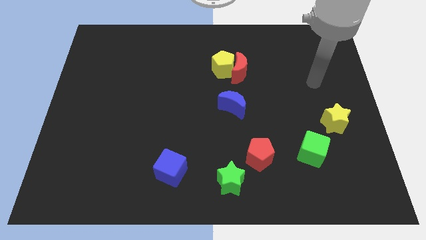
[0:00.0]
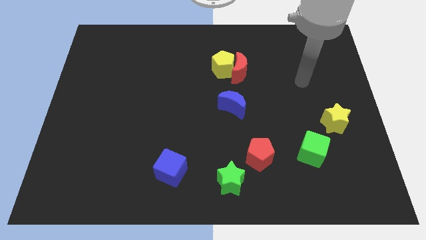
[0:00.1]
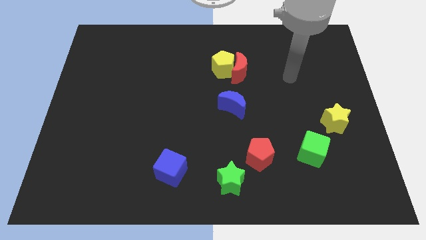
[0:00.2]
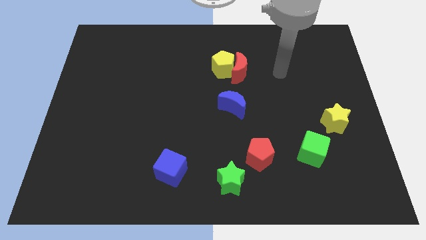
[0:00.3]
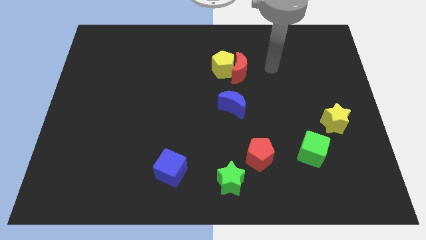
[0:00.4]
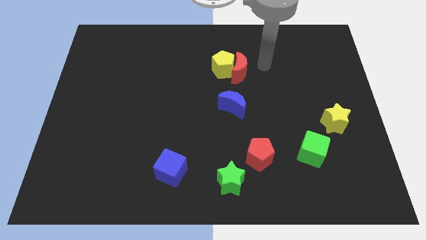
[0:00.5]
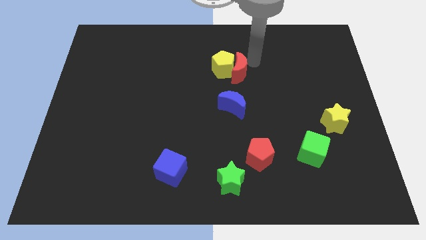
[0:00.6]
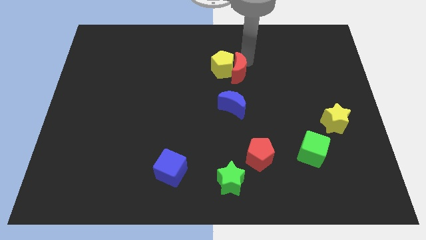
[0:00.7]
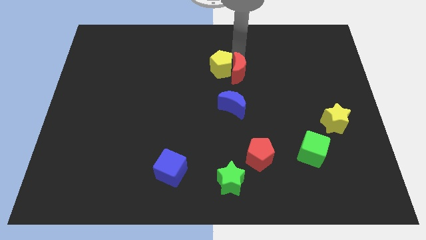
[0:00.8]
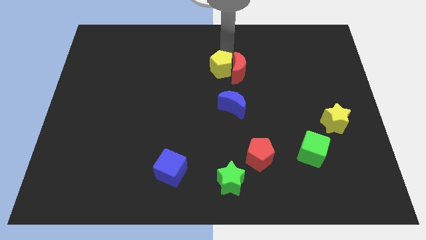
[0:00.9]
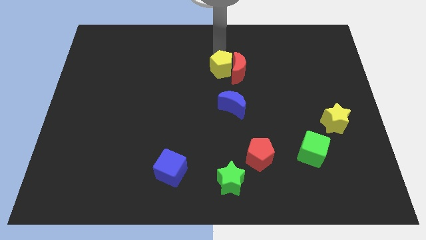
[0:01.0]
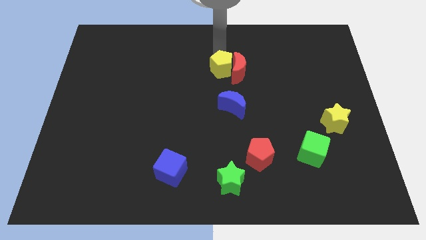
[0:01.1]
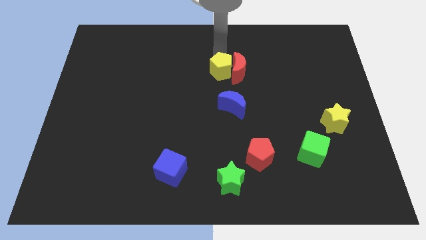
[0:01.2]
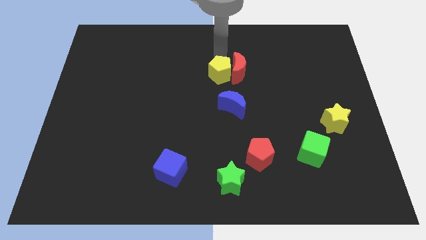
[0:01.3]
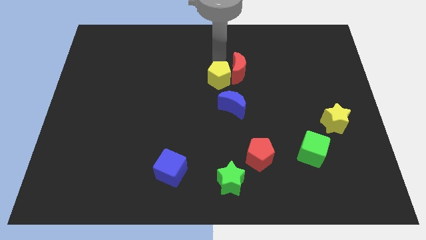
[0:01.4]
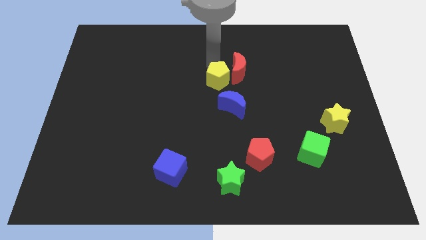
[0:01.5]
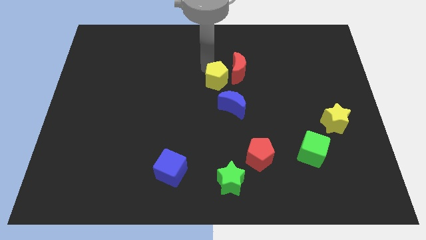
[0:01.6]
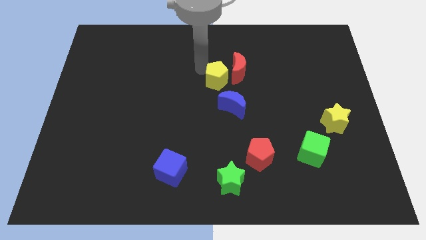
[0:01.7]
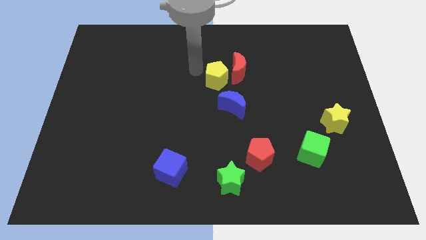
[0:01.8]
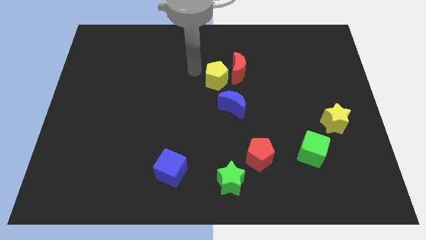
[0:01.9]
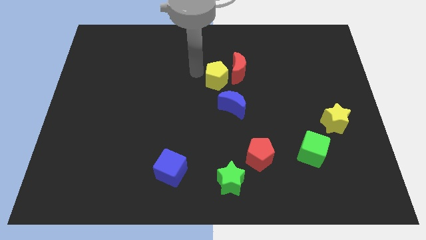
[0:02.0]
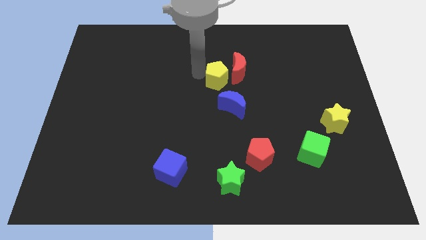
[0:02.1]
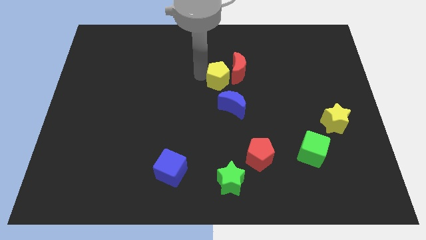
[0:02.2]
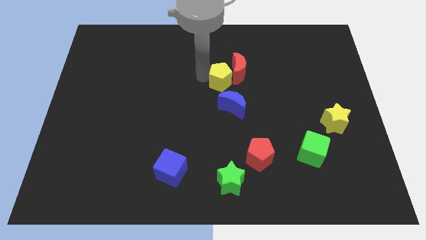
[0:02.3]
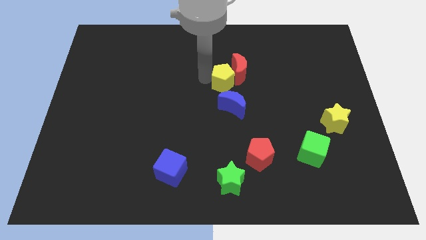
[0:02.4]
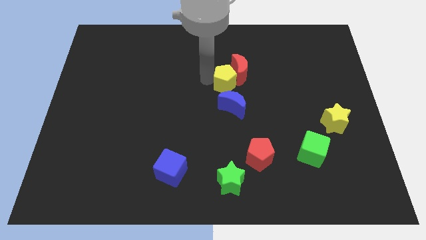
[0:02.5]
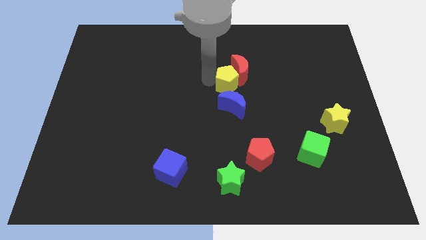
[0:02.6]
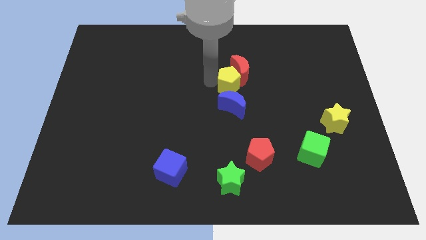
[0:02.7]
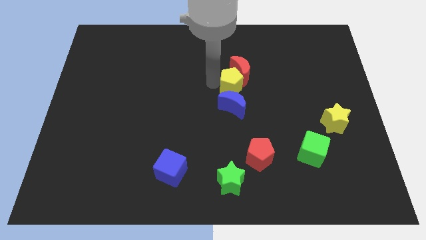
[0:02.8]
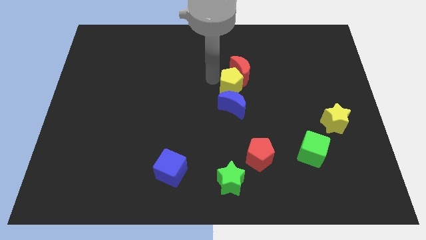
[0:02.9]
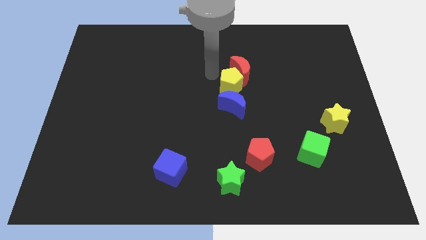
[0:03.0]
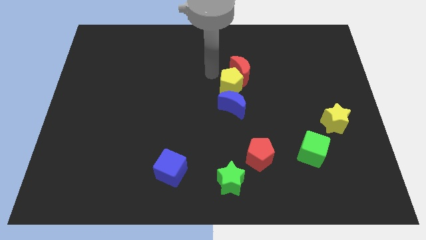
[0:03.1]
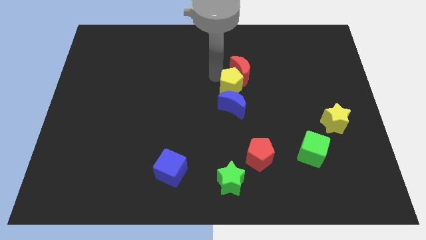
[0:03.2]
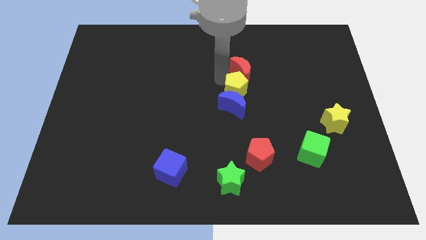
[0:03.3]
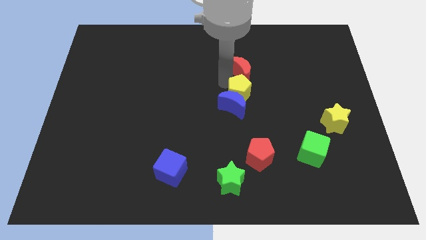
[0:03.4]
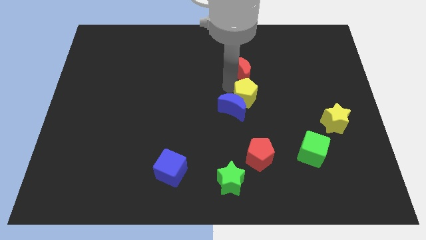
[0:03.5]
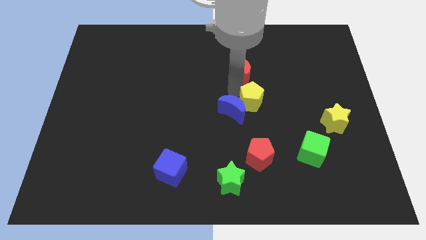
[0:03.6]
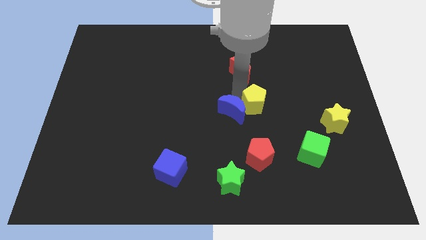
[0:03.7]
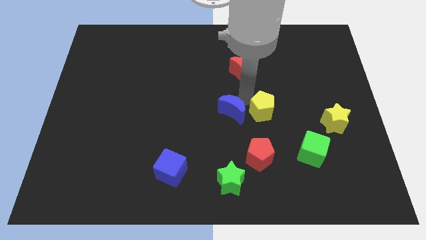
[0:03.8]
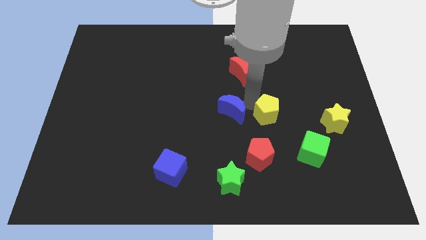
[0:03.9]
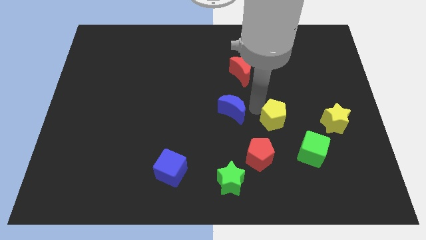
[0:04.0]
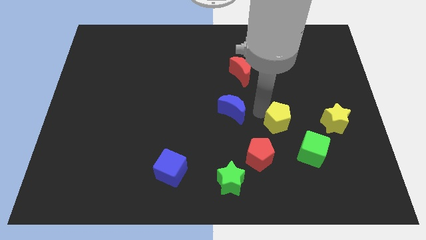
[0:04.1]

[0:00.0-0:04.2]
slide the yellow pentagon diagonally downwards and to the right

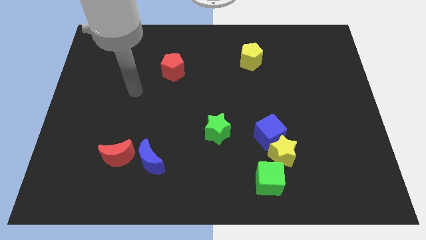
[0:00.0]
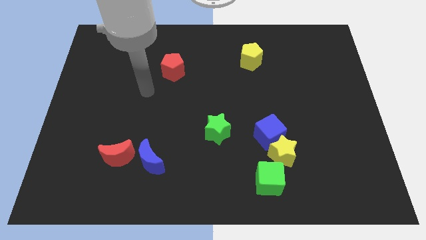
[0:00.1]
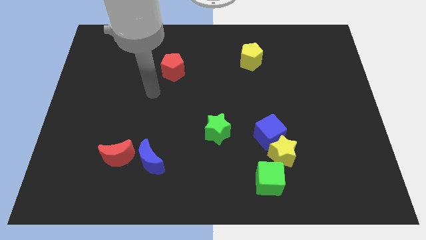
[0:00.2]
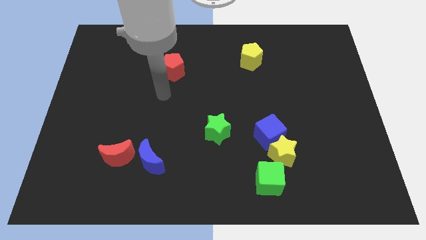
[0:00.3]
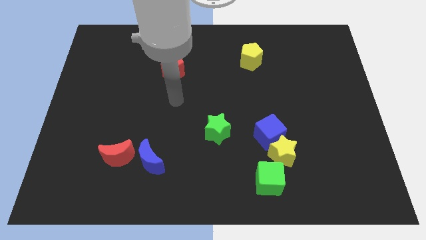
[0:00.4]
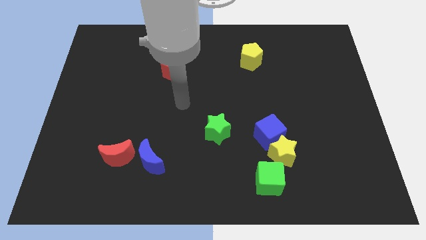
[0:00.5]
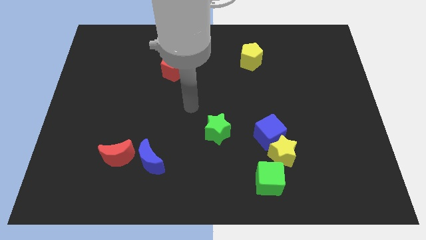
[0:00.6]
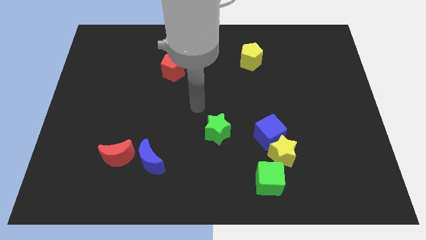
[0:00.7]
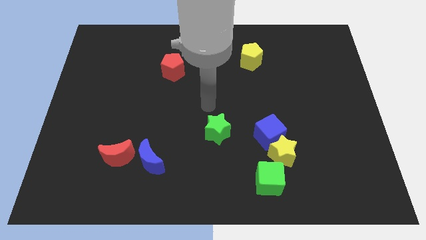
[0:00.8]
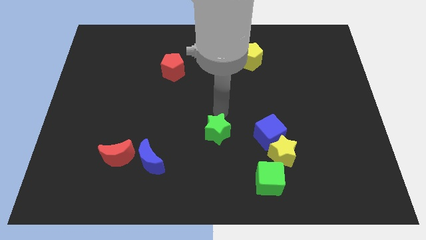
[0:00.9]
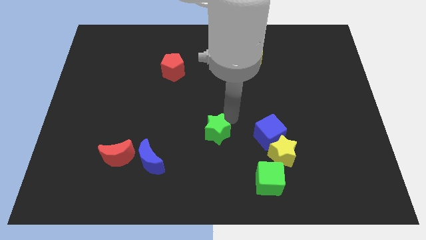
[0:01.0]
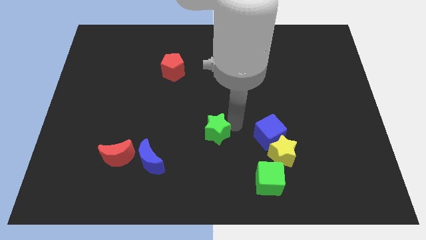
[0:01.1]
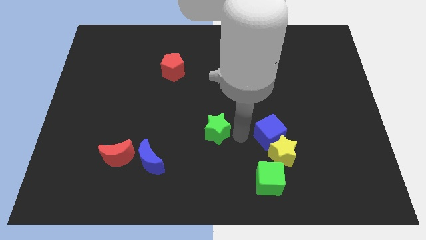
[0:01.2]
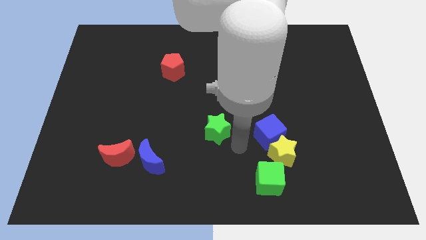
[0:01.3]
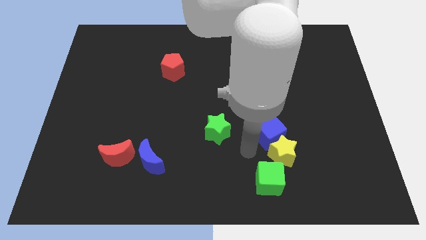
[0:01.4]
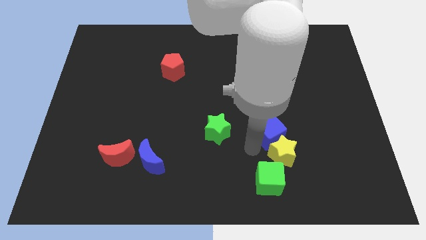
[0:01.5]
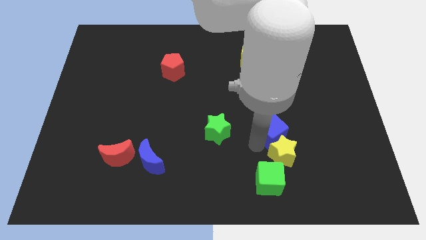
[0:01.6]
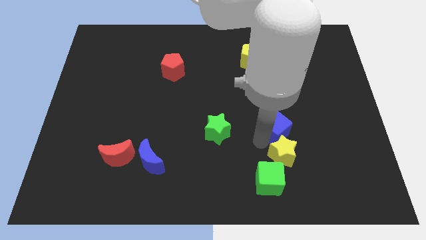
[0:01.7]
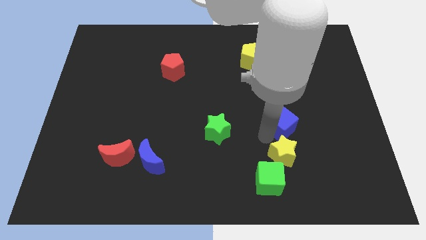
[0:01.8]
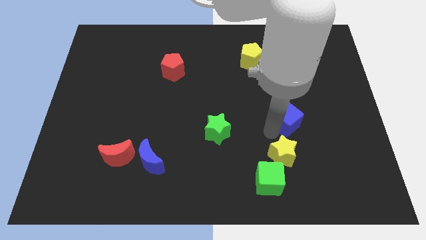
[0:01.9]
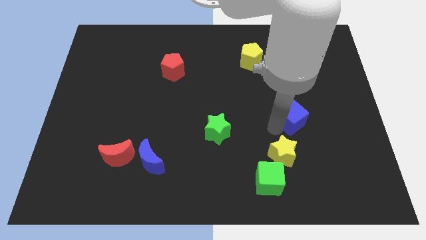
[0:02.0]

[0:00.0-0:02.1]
slightly move the blue cube diagonally up and to the right

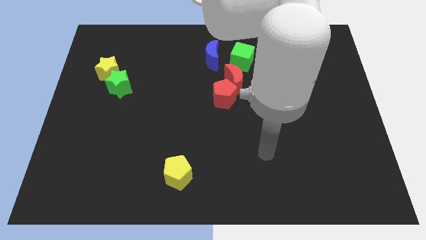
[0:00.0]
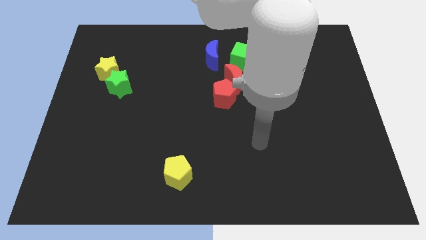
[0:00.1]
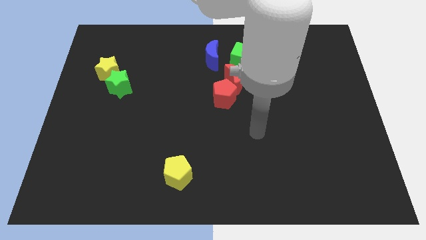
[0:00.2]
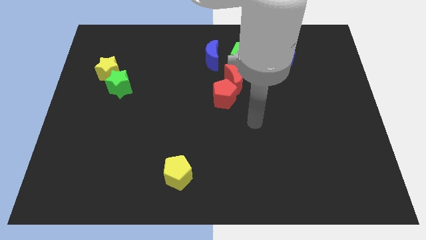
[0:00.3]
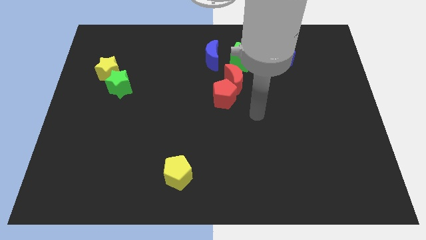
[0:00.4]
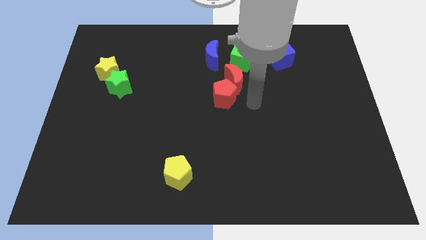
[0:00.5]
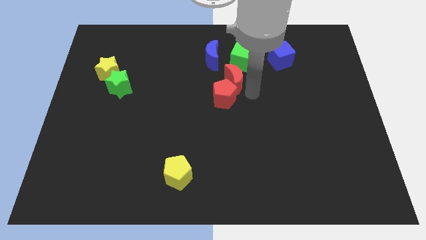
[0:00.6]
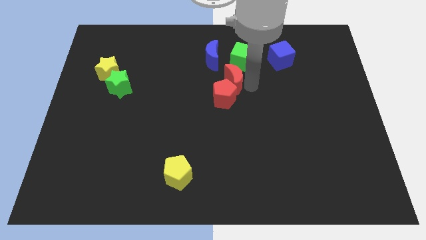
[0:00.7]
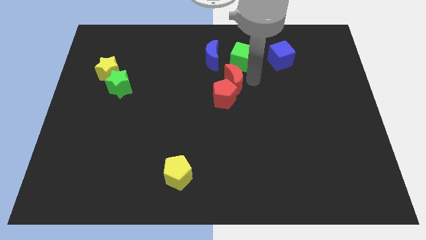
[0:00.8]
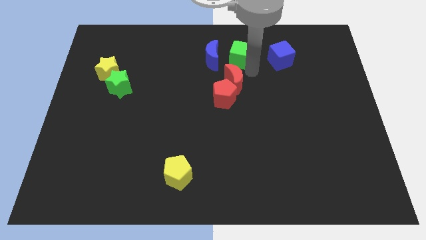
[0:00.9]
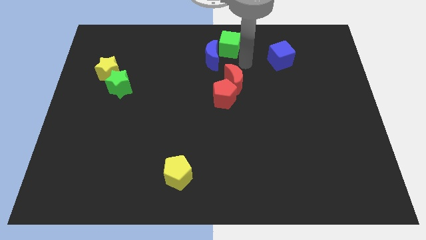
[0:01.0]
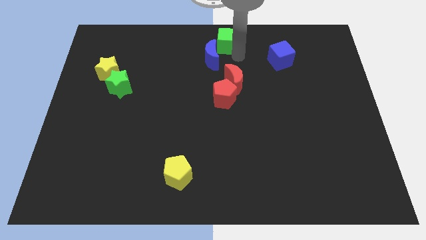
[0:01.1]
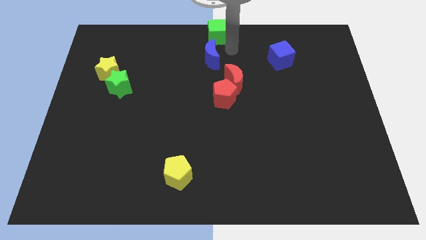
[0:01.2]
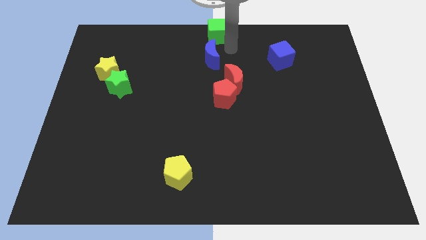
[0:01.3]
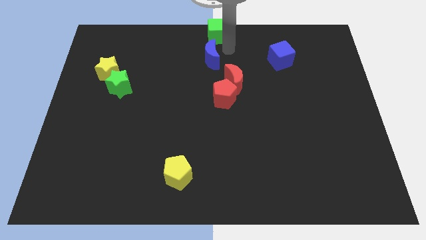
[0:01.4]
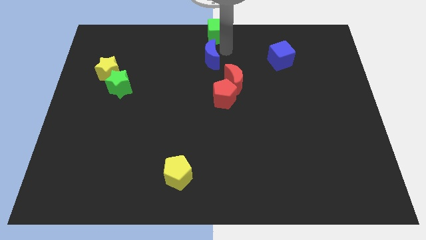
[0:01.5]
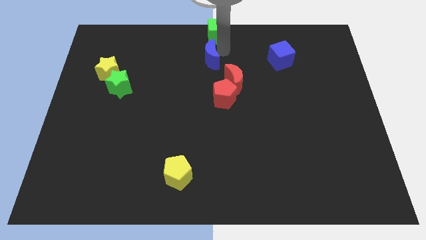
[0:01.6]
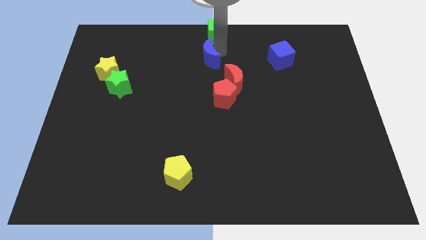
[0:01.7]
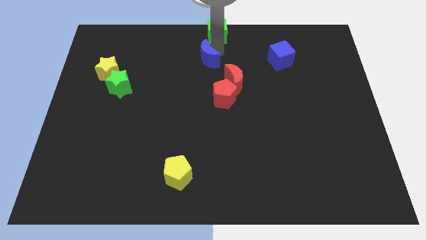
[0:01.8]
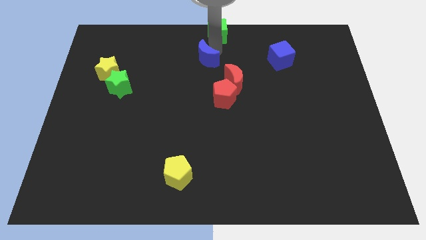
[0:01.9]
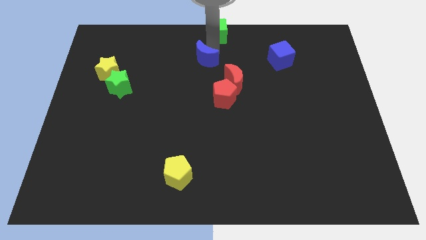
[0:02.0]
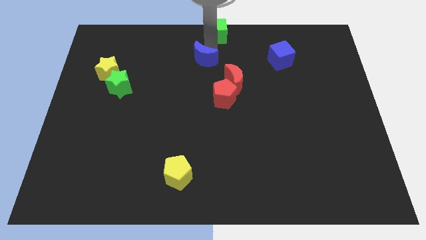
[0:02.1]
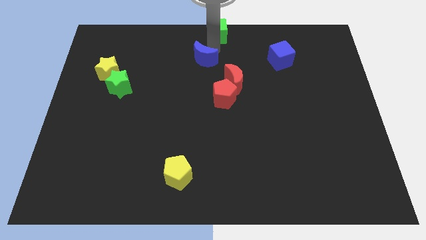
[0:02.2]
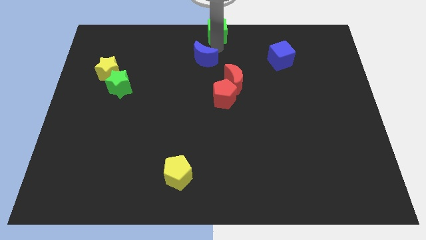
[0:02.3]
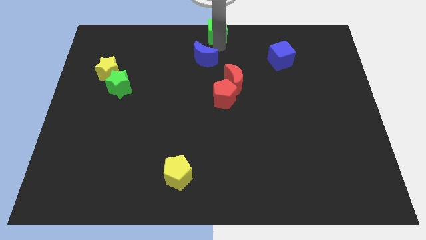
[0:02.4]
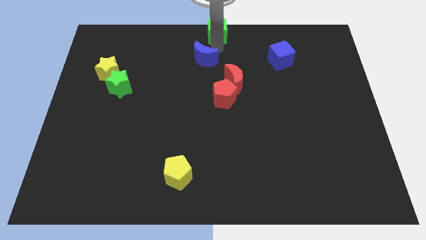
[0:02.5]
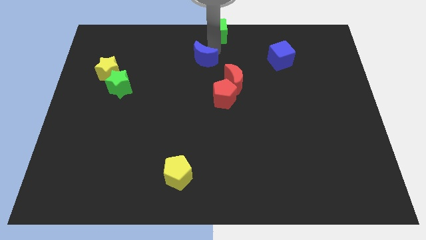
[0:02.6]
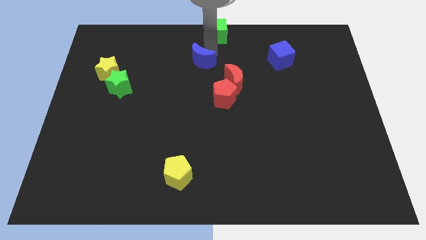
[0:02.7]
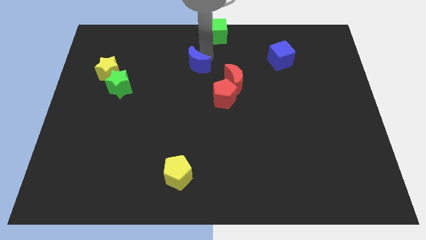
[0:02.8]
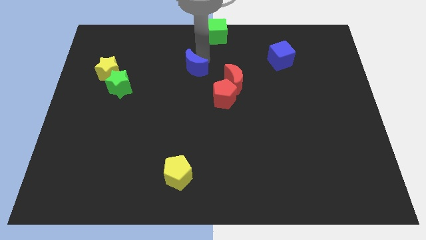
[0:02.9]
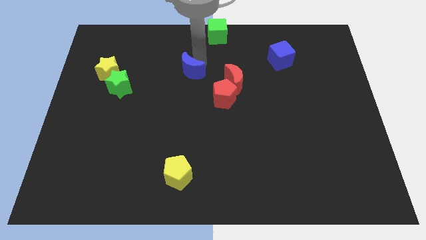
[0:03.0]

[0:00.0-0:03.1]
slide the blue moon slightly downwards and to the left diagonally
